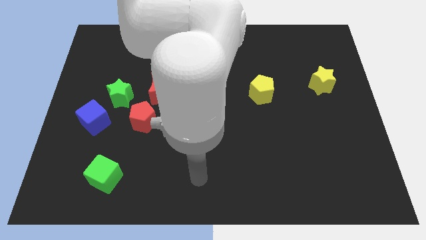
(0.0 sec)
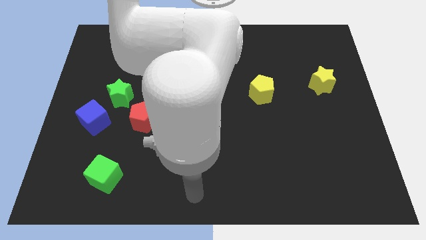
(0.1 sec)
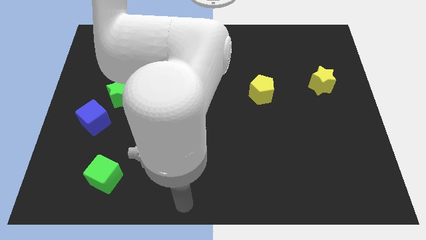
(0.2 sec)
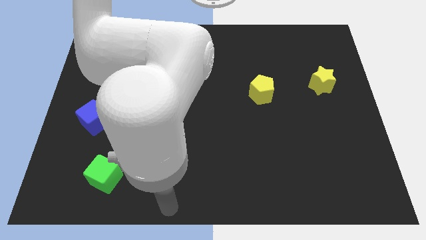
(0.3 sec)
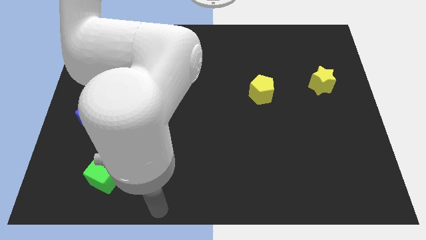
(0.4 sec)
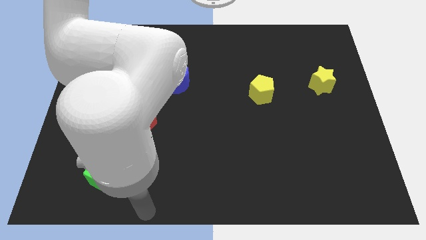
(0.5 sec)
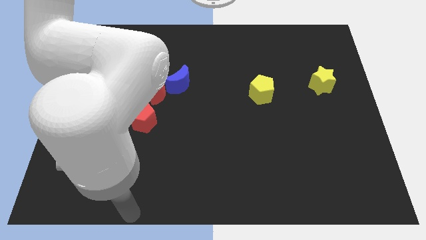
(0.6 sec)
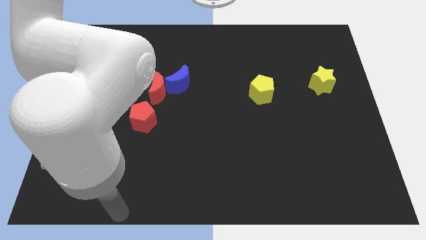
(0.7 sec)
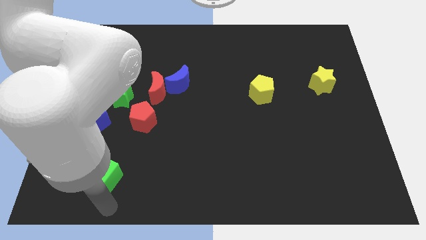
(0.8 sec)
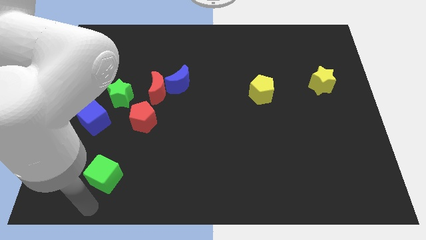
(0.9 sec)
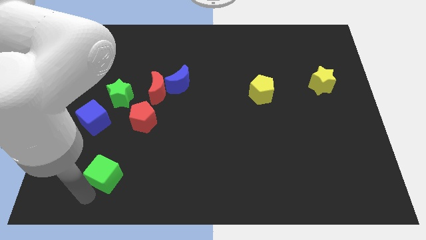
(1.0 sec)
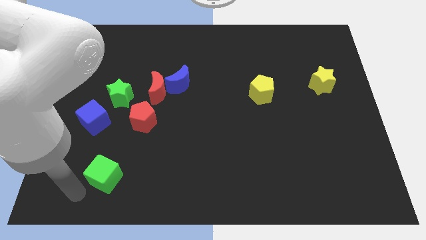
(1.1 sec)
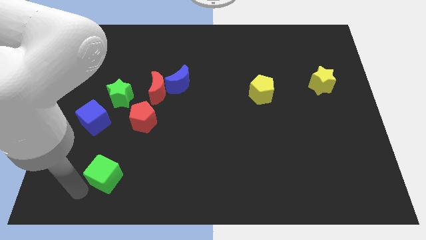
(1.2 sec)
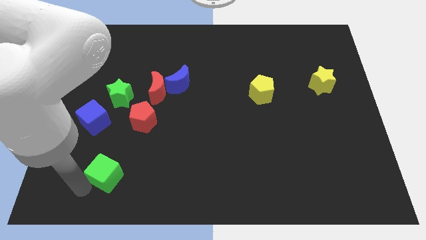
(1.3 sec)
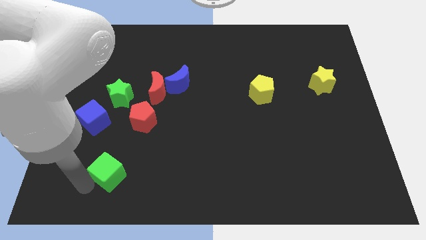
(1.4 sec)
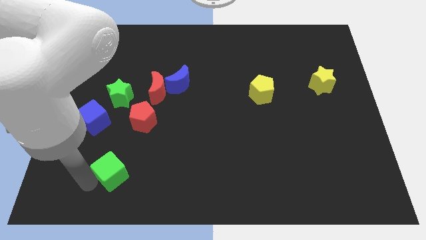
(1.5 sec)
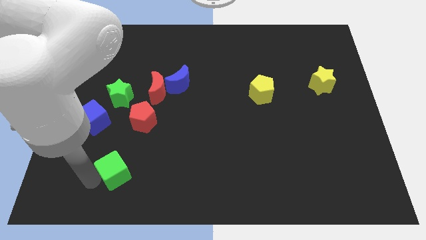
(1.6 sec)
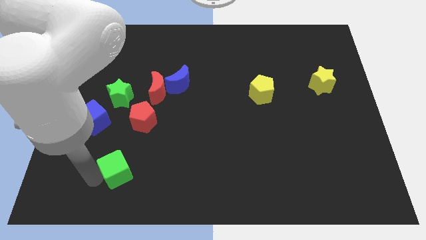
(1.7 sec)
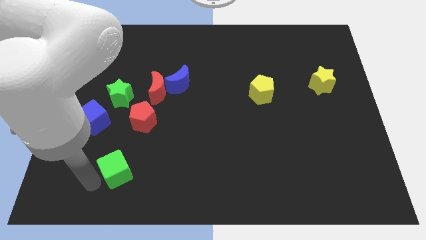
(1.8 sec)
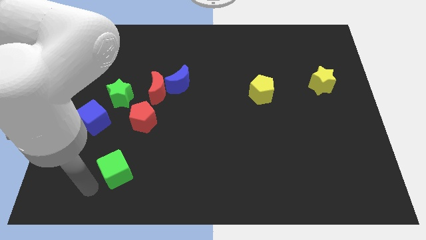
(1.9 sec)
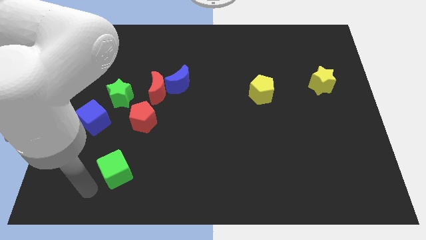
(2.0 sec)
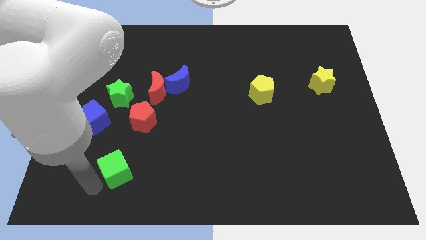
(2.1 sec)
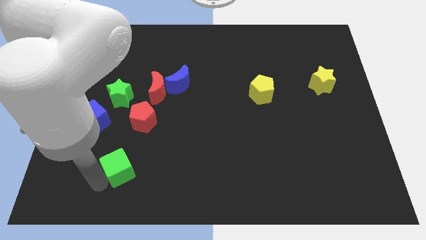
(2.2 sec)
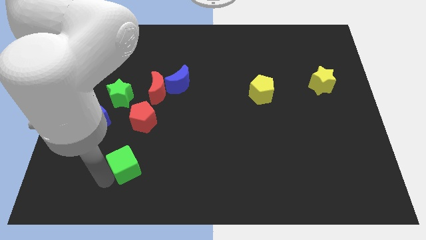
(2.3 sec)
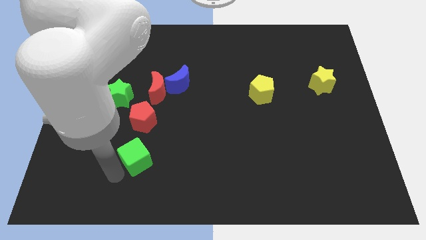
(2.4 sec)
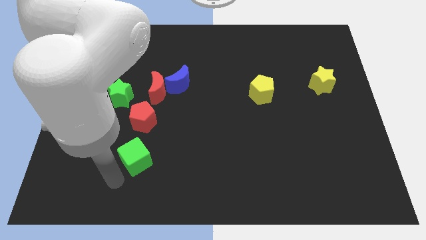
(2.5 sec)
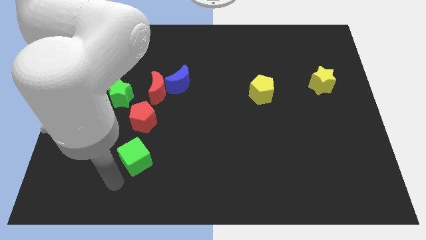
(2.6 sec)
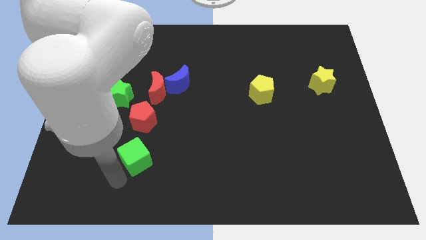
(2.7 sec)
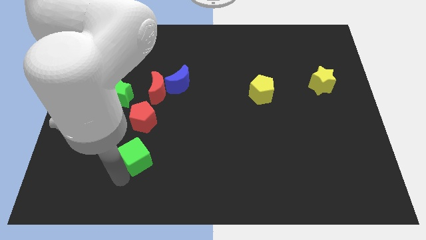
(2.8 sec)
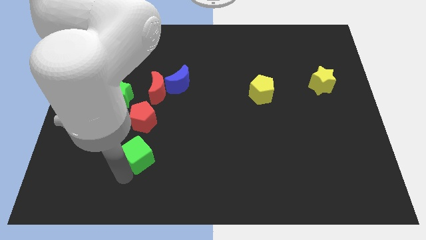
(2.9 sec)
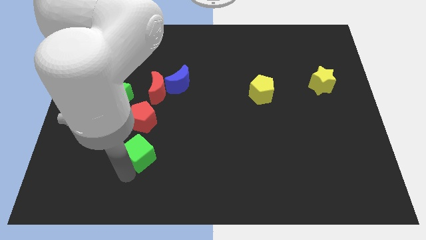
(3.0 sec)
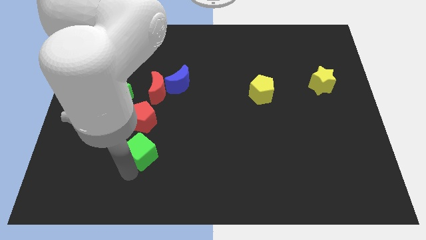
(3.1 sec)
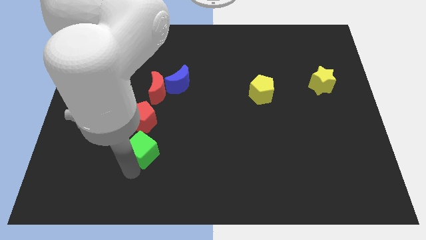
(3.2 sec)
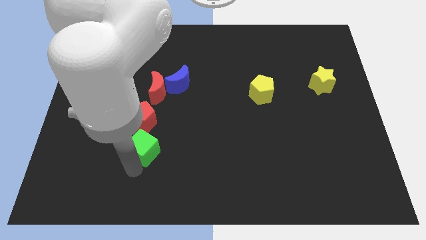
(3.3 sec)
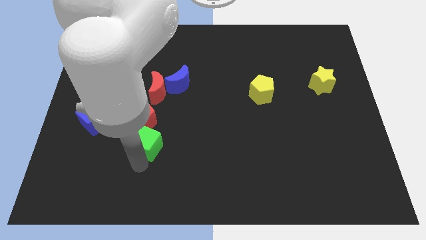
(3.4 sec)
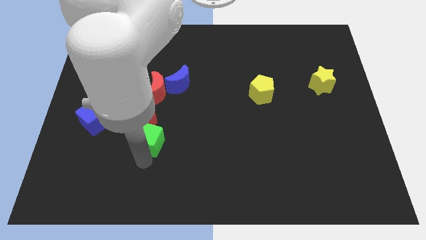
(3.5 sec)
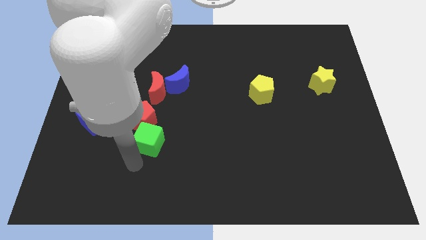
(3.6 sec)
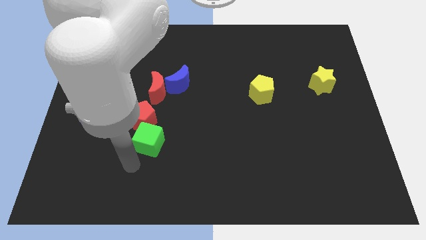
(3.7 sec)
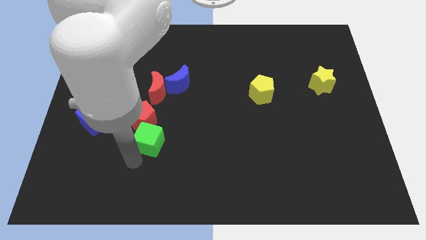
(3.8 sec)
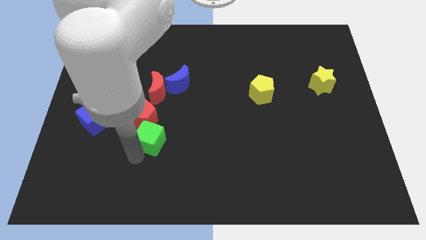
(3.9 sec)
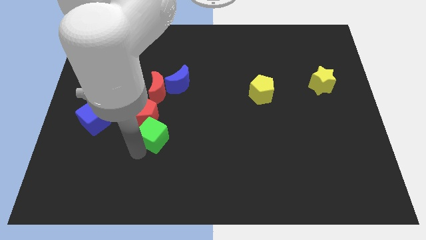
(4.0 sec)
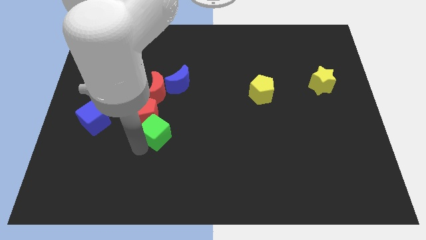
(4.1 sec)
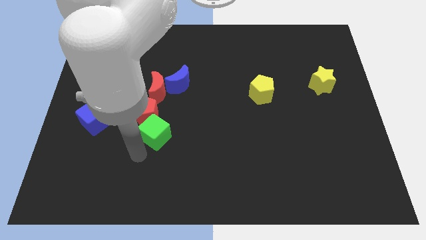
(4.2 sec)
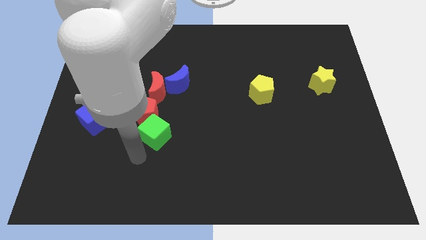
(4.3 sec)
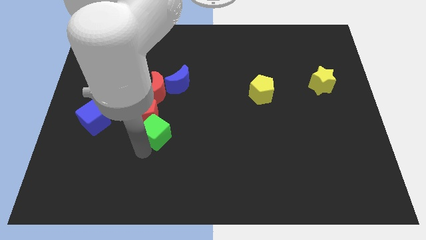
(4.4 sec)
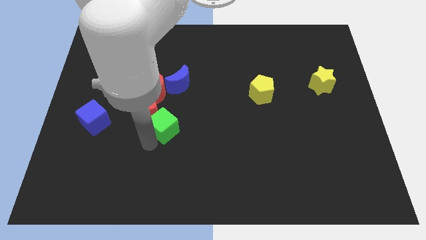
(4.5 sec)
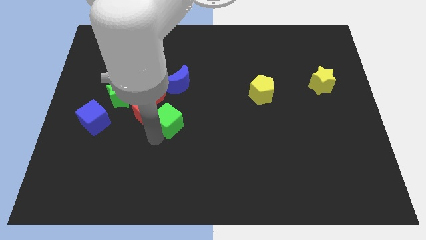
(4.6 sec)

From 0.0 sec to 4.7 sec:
put the green cube to the bottom right of the red moon

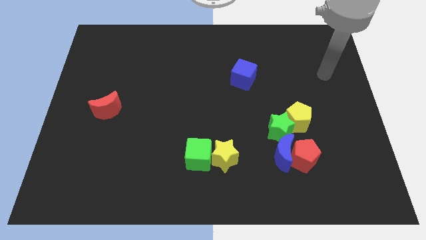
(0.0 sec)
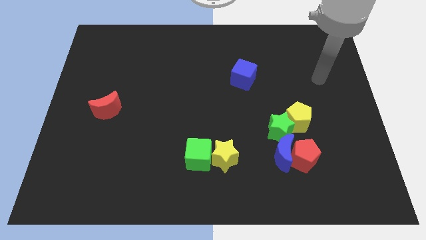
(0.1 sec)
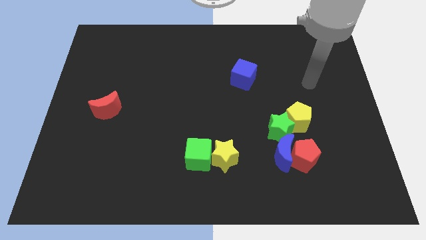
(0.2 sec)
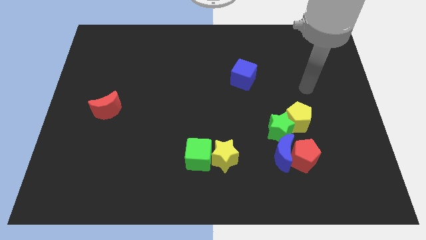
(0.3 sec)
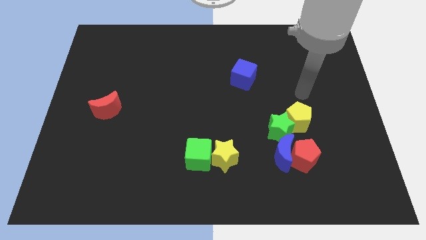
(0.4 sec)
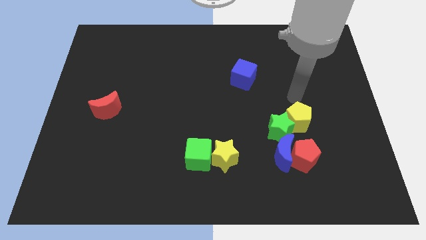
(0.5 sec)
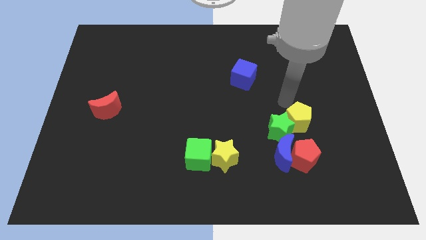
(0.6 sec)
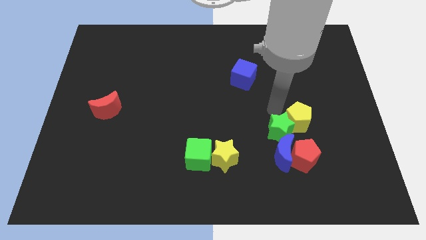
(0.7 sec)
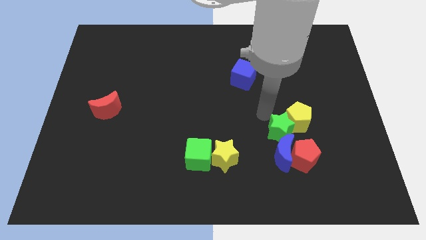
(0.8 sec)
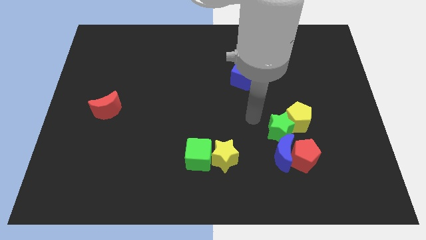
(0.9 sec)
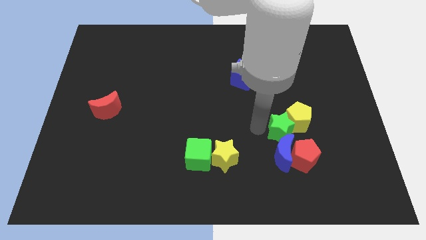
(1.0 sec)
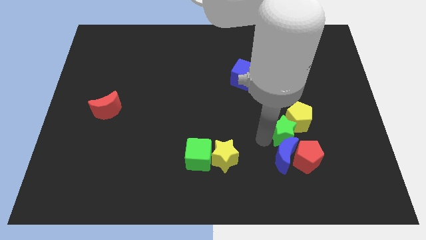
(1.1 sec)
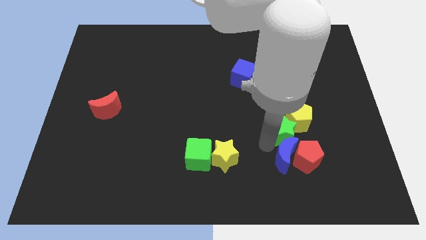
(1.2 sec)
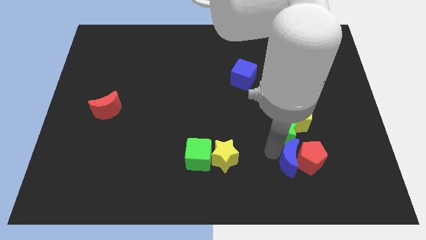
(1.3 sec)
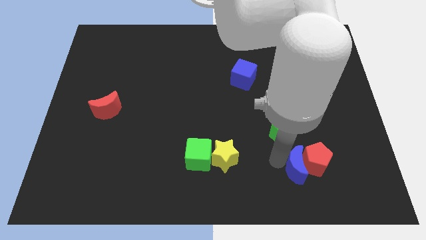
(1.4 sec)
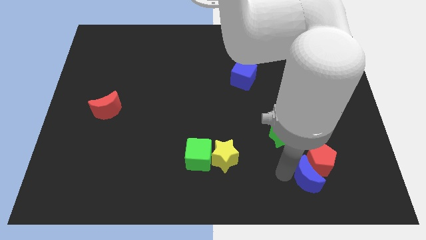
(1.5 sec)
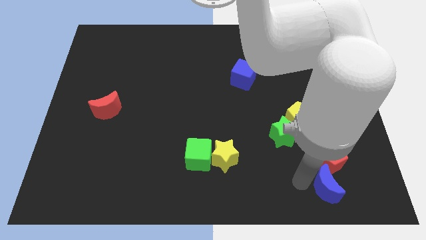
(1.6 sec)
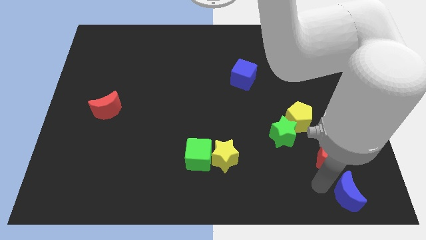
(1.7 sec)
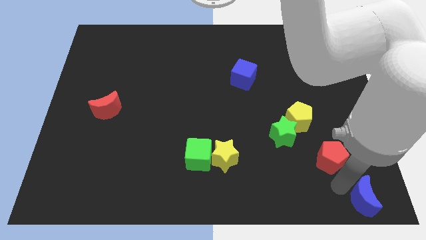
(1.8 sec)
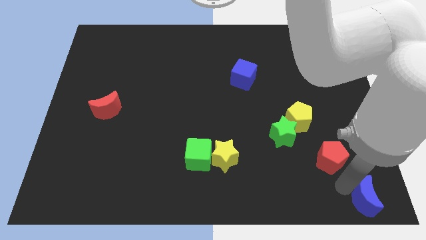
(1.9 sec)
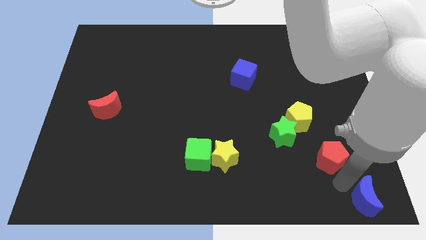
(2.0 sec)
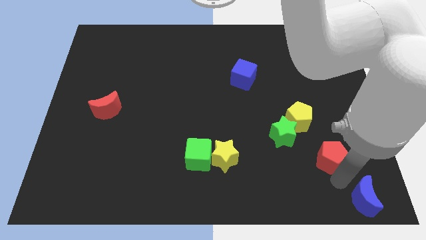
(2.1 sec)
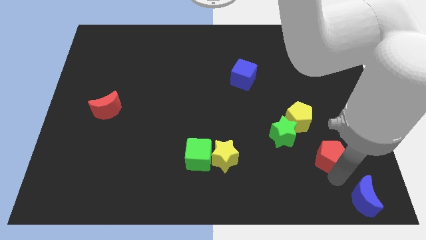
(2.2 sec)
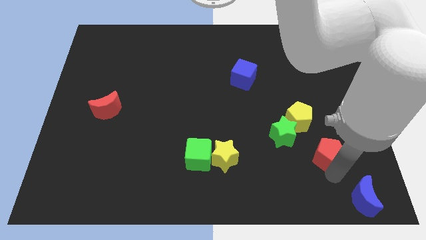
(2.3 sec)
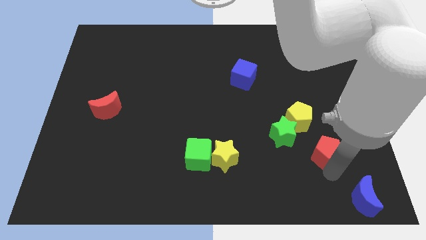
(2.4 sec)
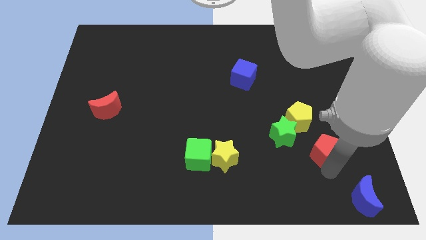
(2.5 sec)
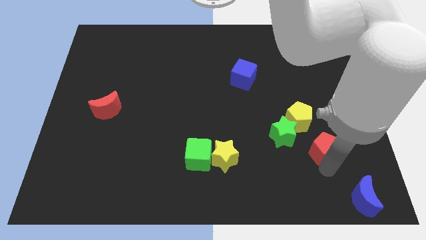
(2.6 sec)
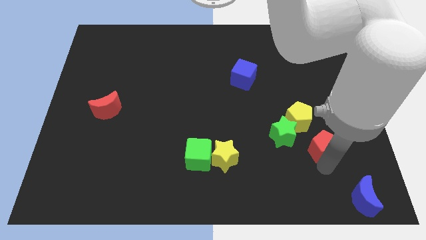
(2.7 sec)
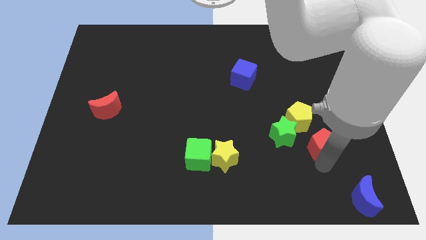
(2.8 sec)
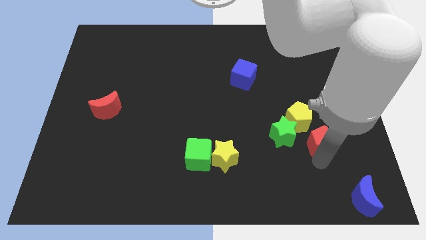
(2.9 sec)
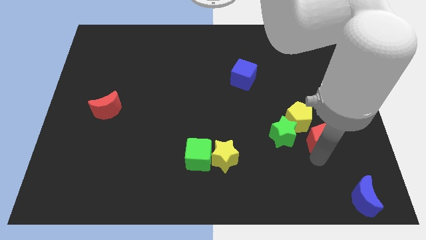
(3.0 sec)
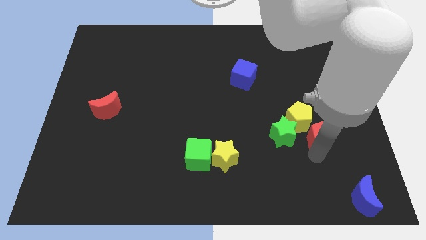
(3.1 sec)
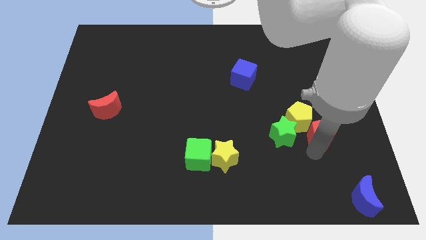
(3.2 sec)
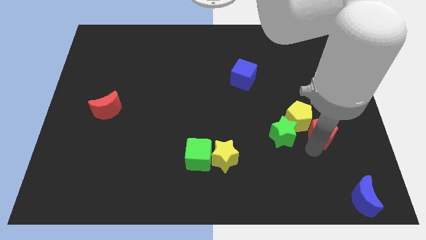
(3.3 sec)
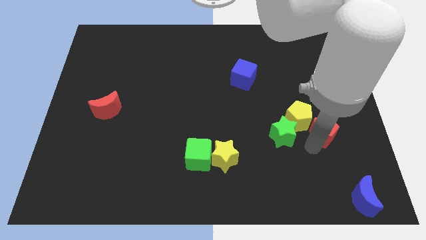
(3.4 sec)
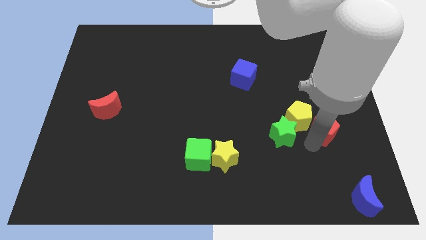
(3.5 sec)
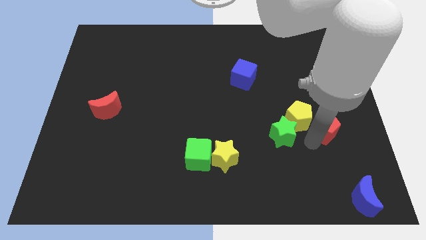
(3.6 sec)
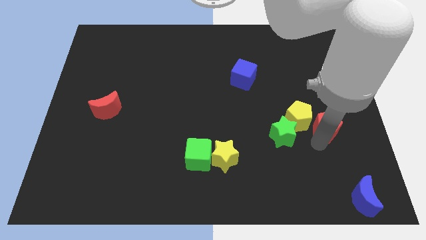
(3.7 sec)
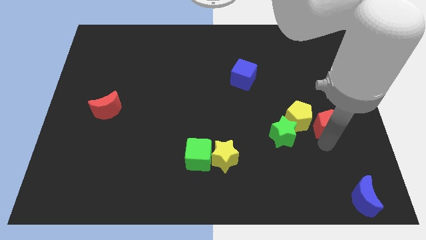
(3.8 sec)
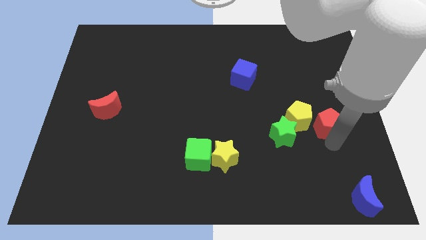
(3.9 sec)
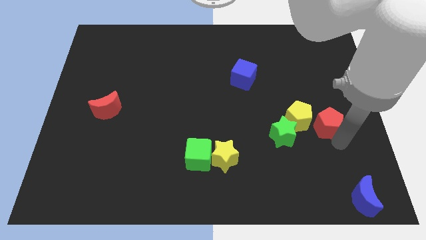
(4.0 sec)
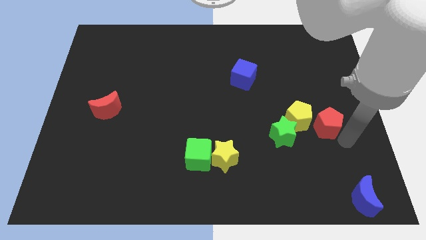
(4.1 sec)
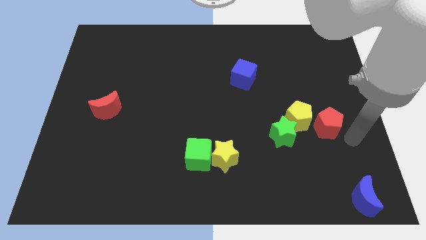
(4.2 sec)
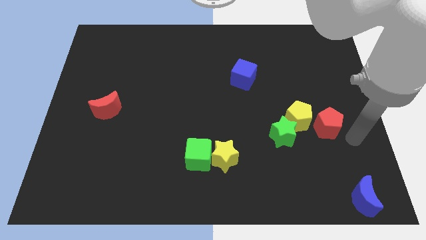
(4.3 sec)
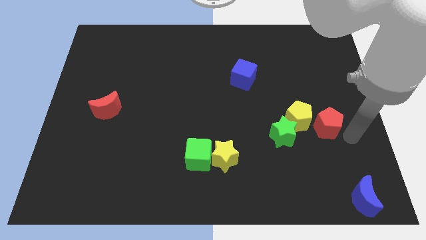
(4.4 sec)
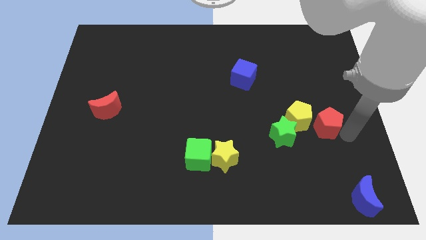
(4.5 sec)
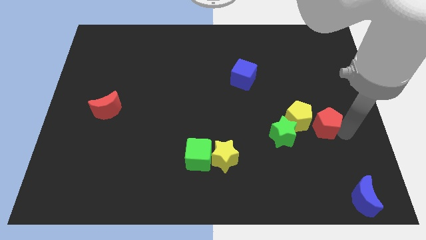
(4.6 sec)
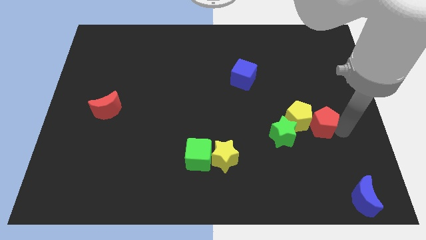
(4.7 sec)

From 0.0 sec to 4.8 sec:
push the red pentagon diagonally up and to the right of the green star
